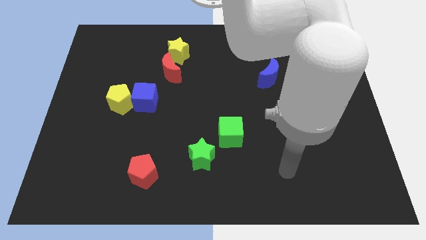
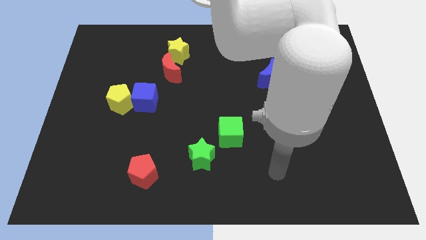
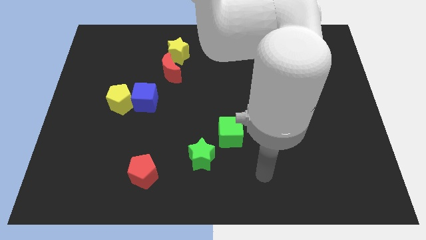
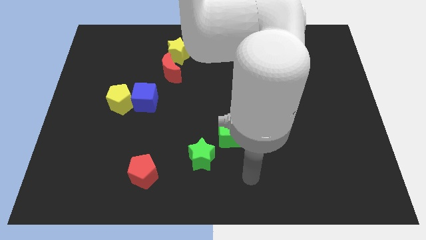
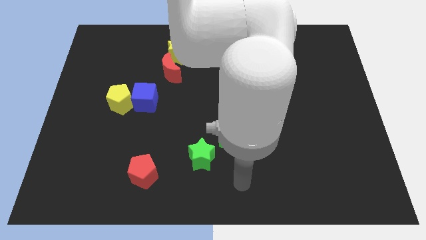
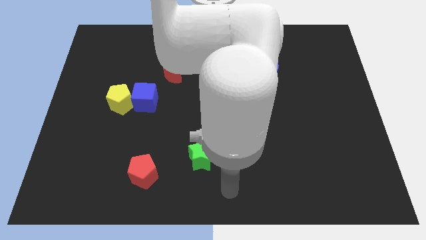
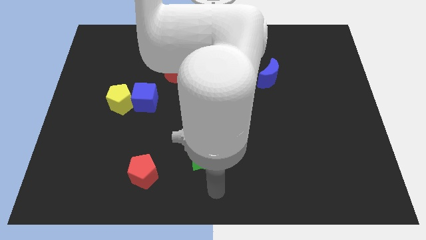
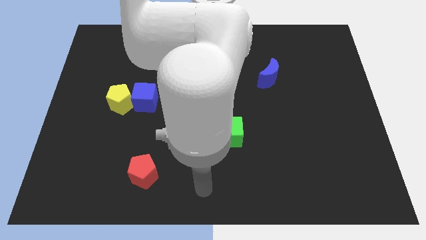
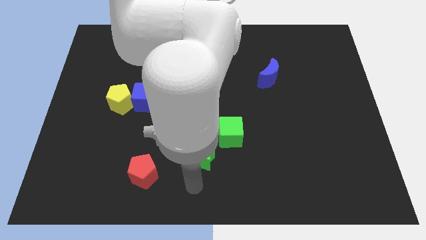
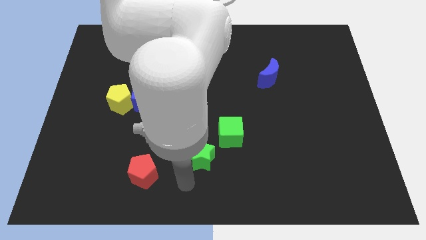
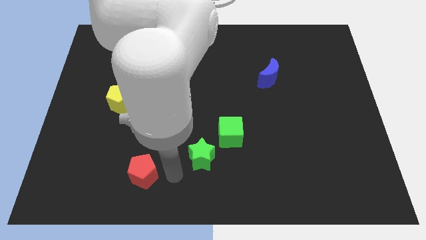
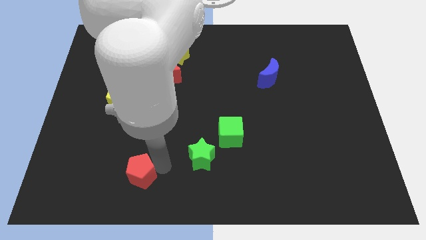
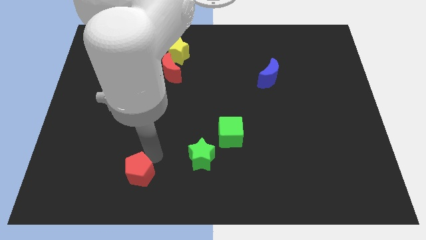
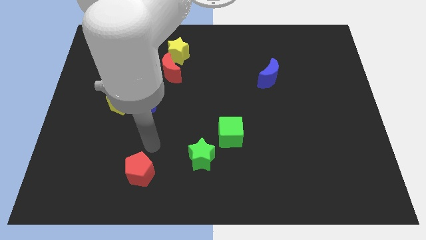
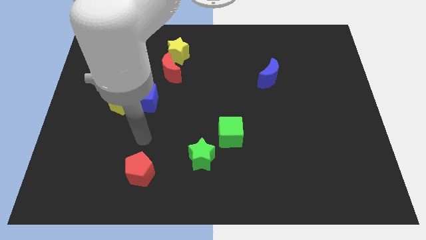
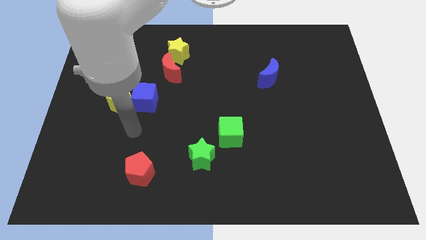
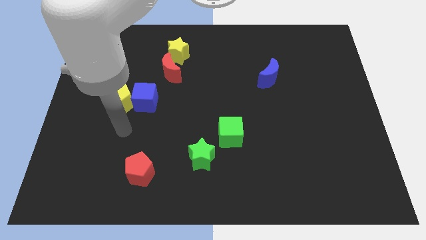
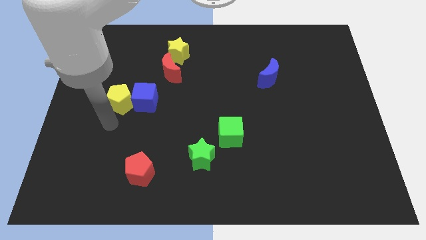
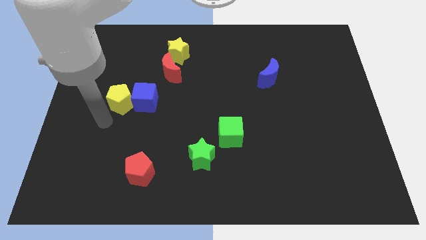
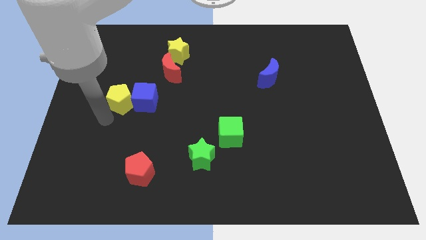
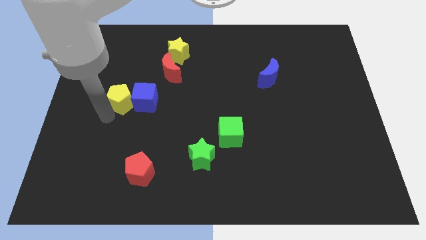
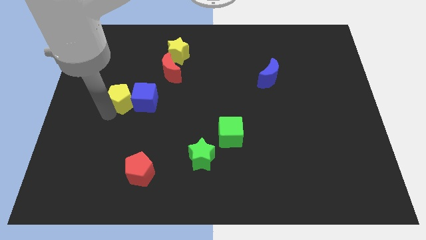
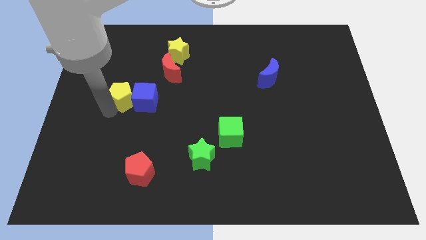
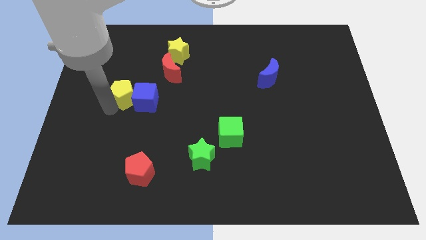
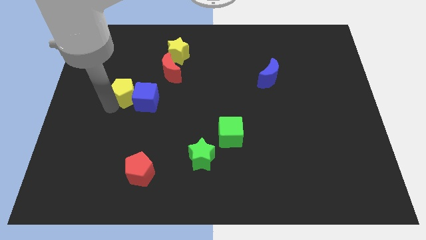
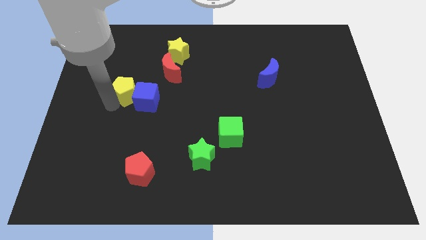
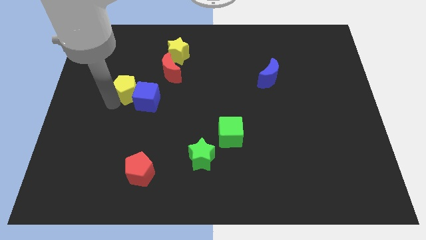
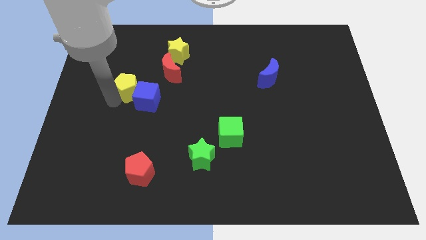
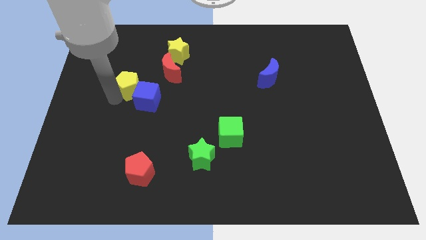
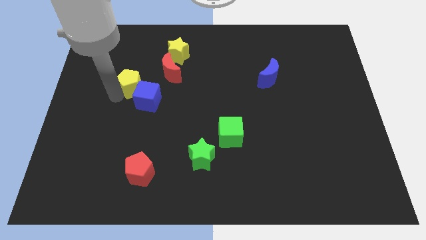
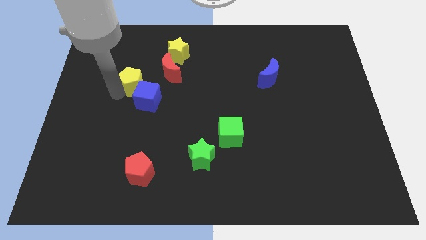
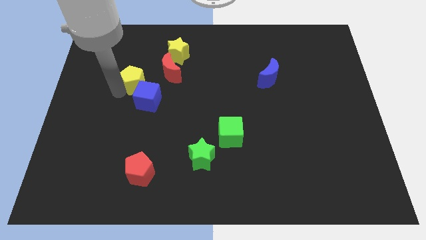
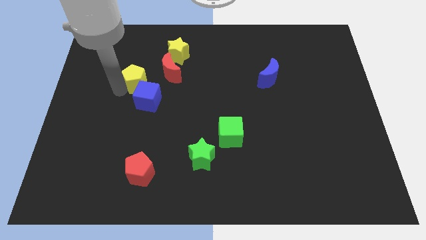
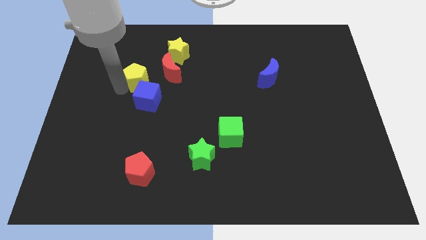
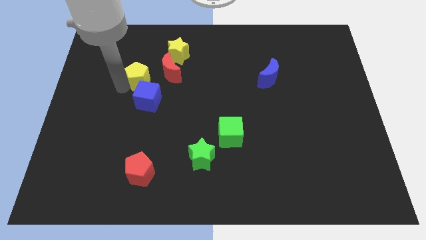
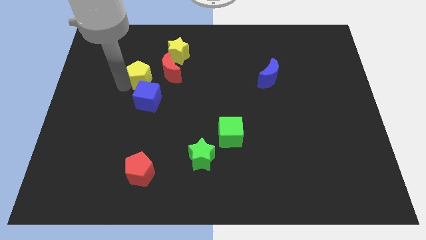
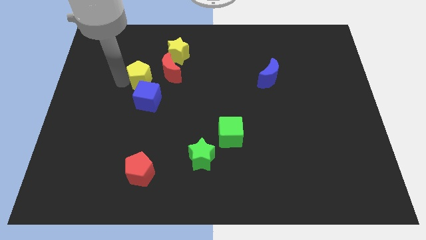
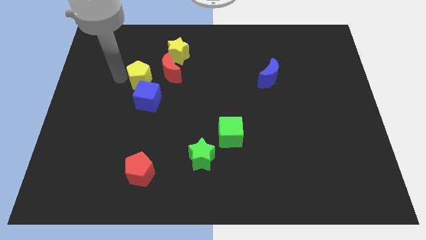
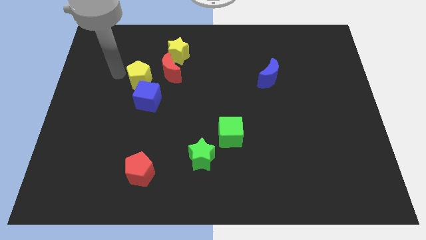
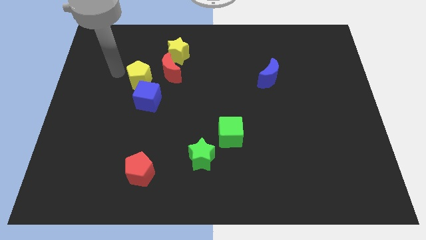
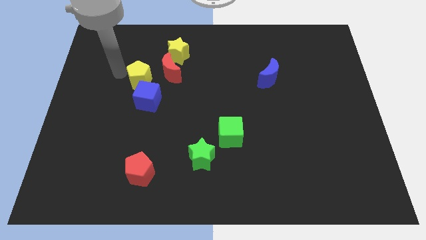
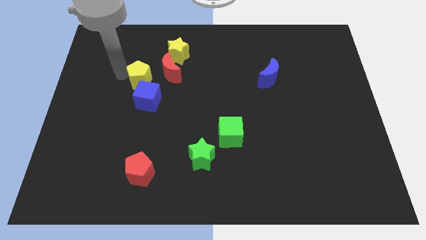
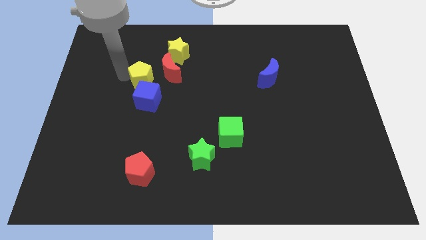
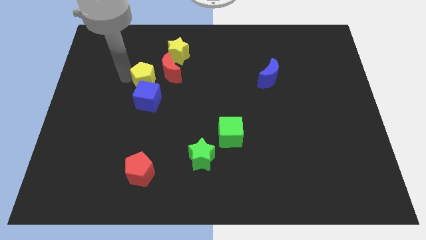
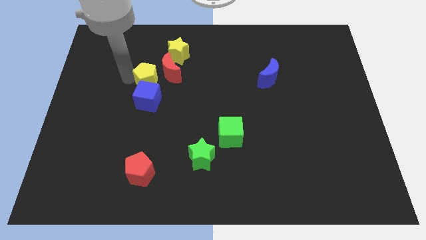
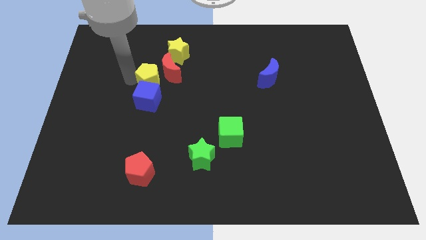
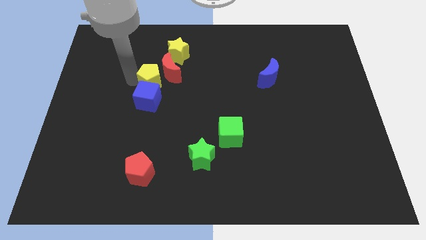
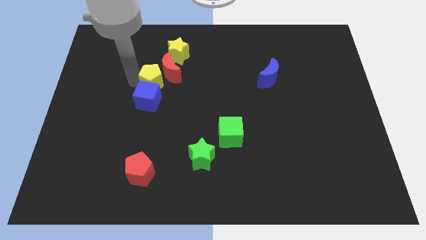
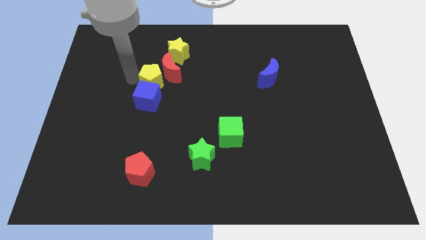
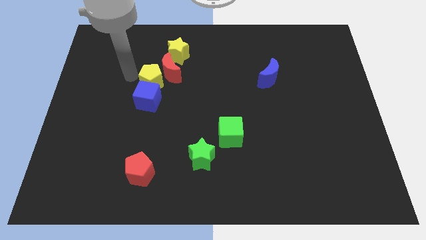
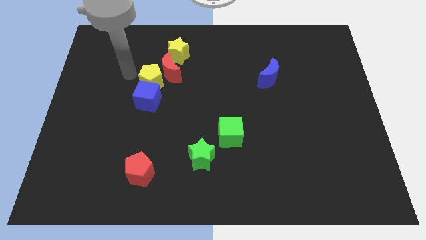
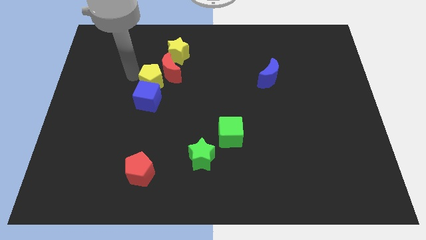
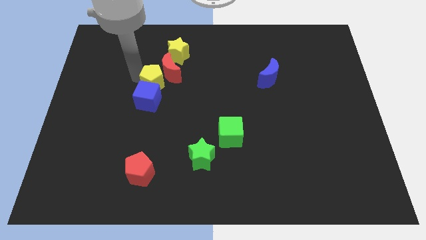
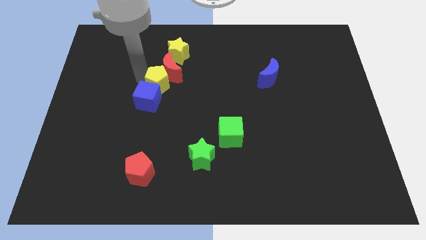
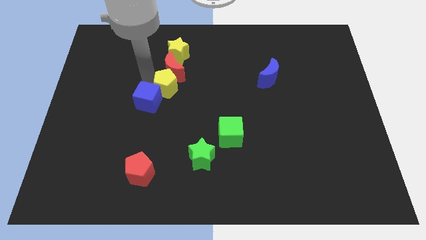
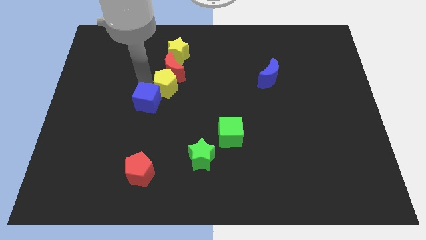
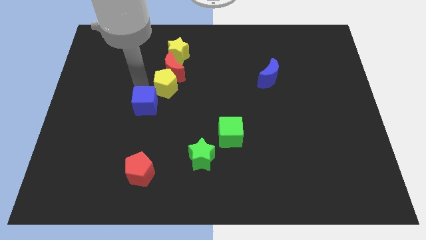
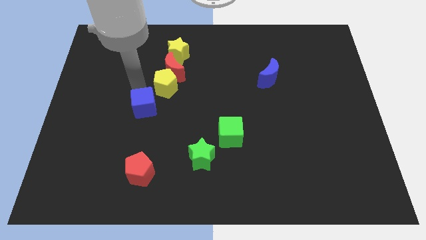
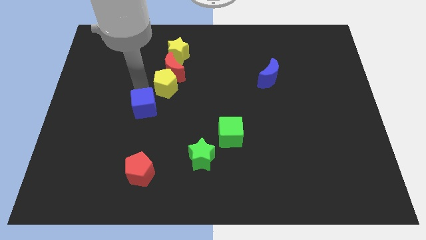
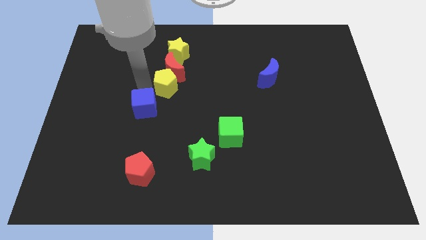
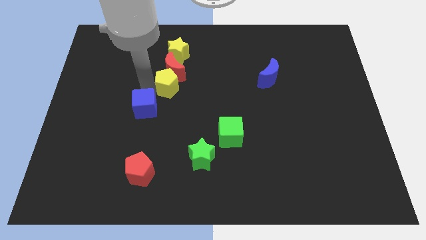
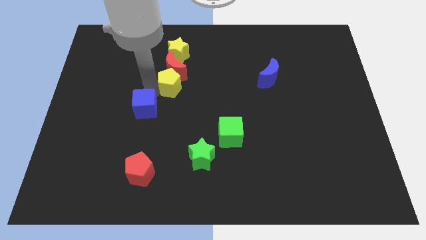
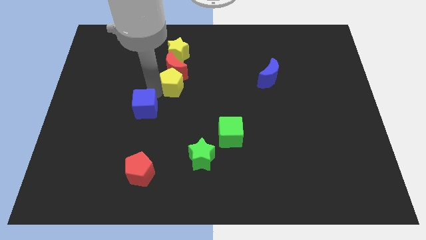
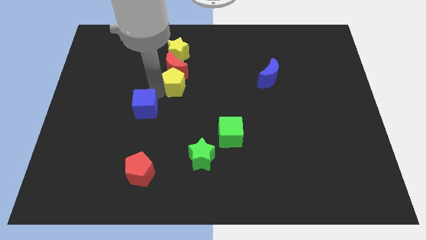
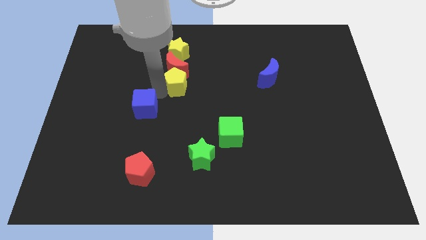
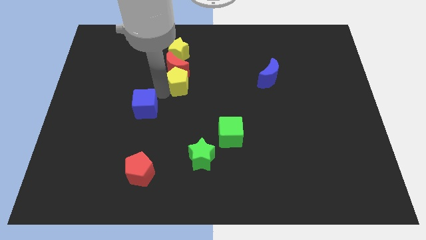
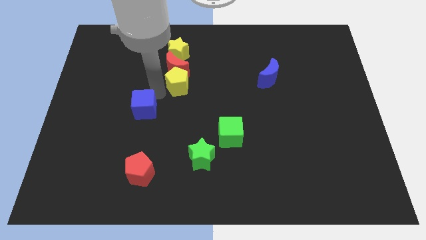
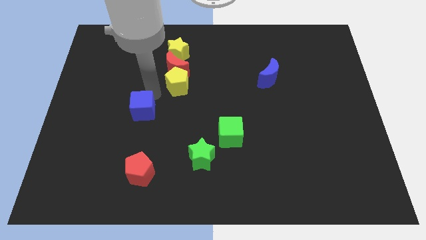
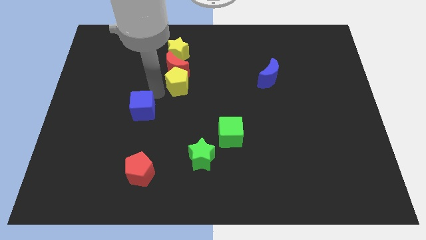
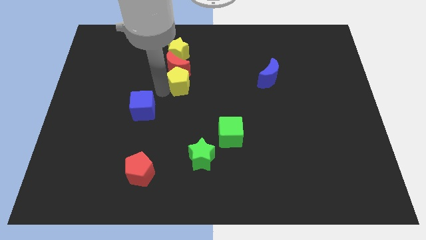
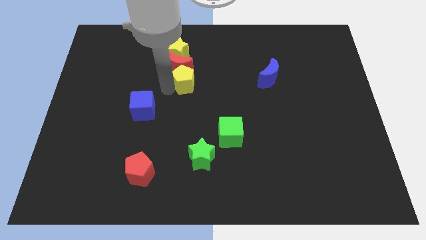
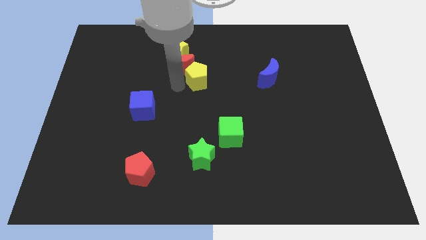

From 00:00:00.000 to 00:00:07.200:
put the yellow pentagon right of the red moon
